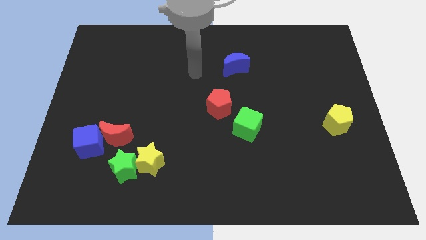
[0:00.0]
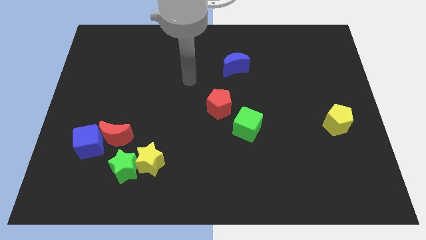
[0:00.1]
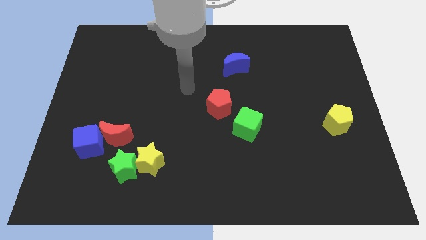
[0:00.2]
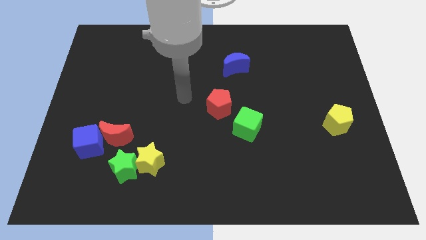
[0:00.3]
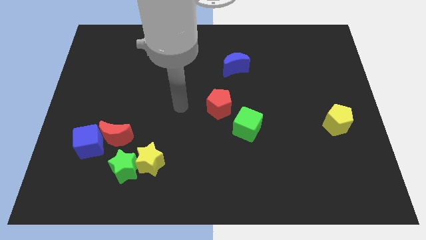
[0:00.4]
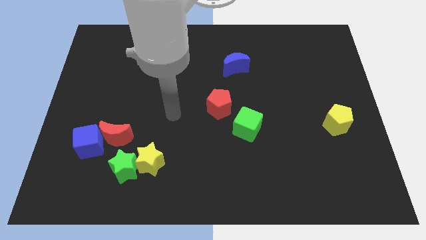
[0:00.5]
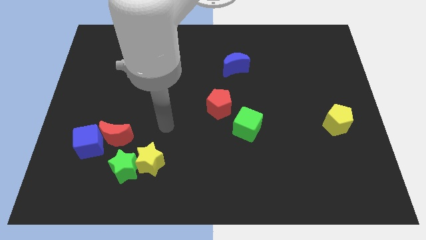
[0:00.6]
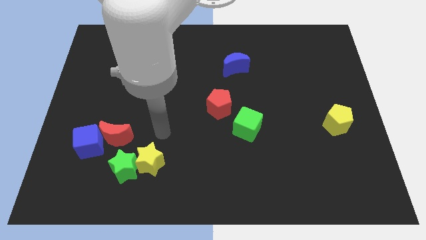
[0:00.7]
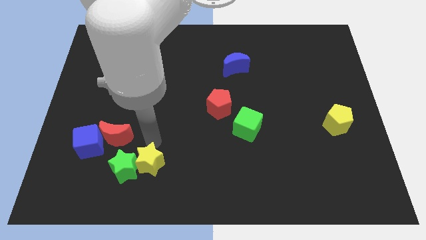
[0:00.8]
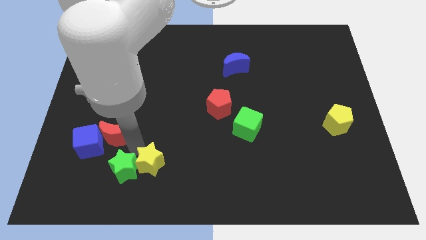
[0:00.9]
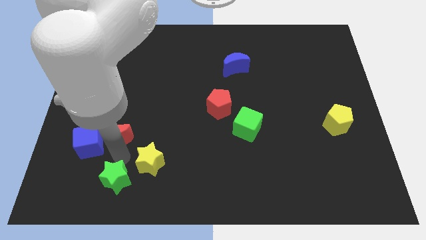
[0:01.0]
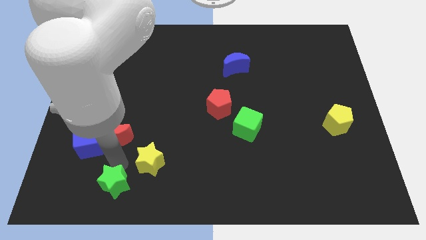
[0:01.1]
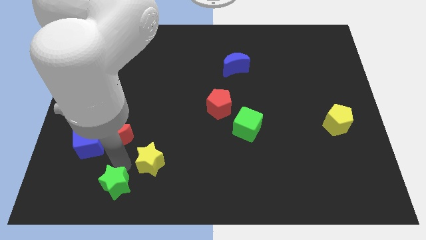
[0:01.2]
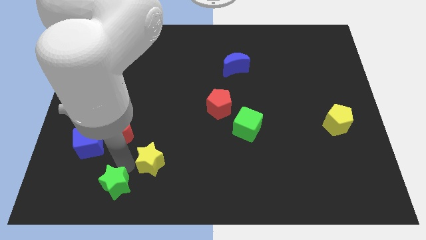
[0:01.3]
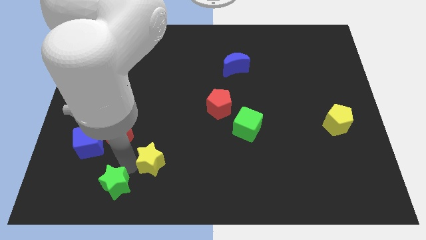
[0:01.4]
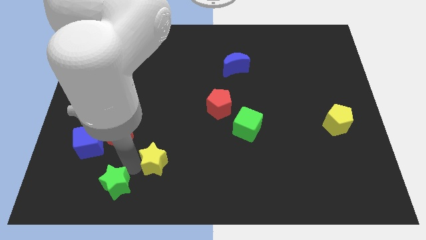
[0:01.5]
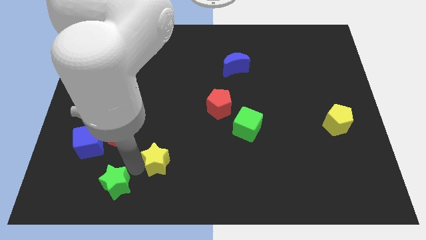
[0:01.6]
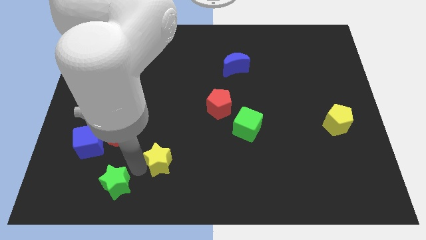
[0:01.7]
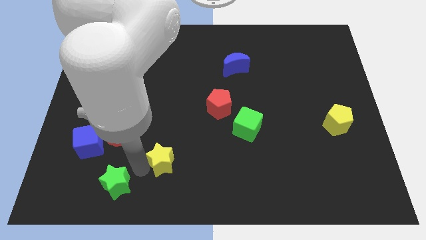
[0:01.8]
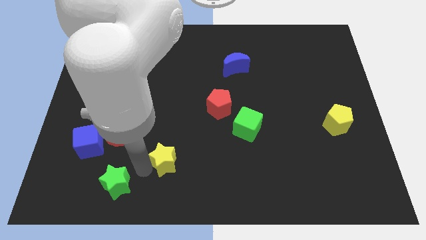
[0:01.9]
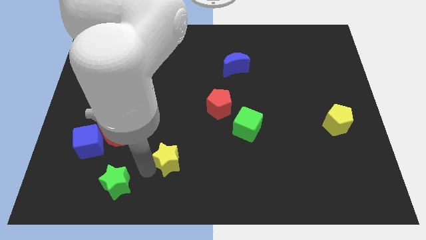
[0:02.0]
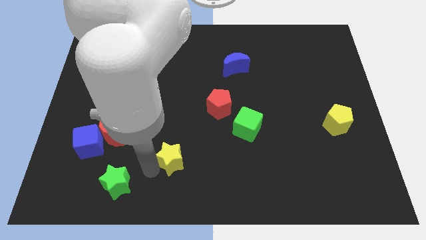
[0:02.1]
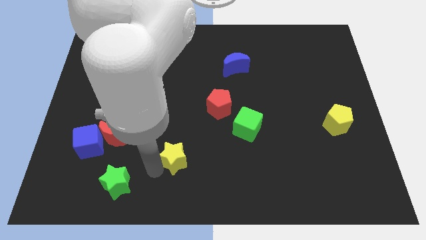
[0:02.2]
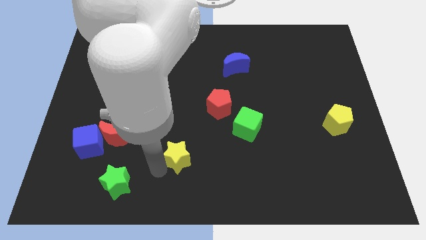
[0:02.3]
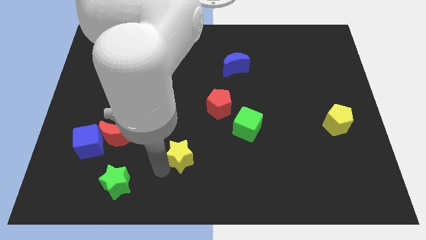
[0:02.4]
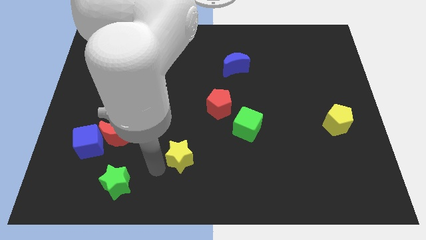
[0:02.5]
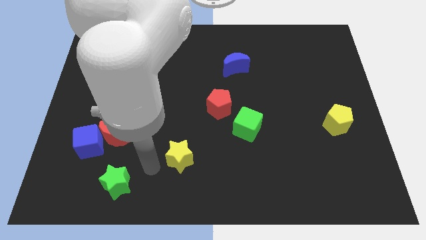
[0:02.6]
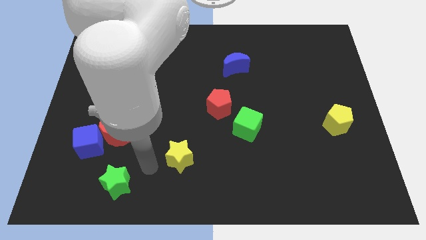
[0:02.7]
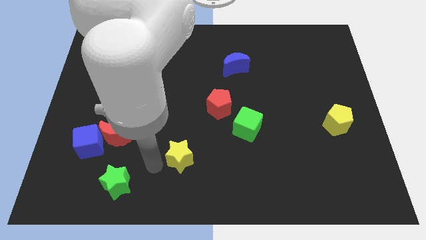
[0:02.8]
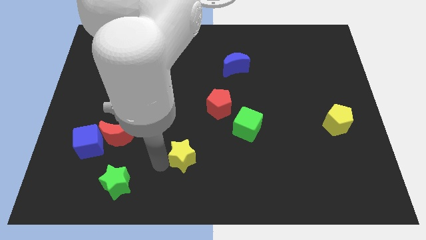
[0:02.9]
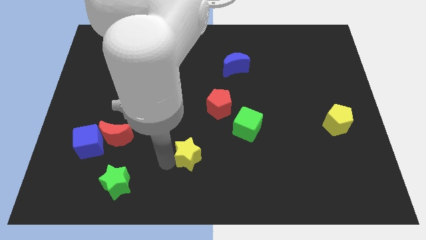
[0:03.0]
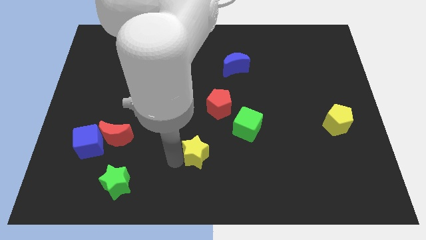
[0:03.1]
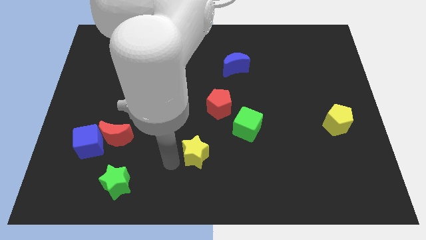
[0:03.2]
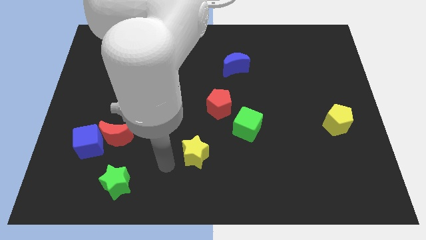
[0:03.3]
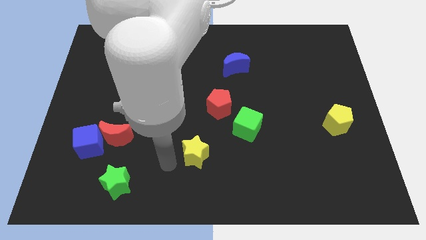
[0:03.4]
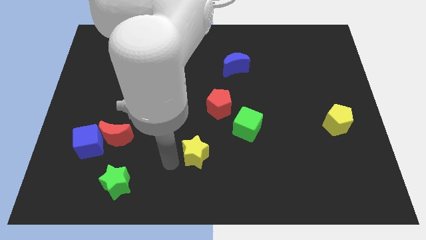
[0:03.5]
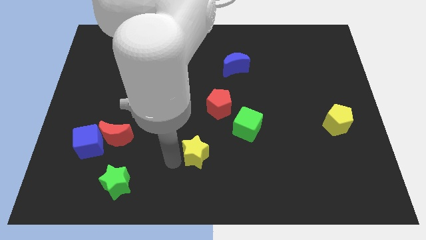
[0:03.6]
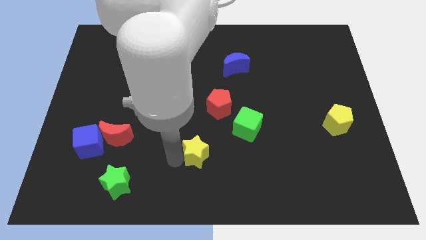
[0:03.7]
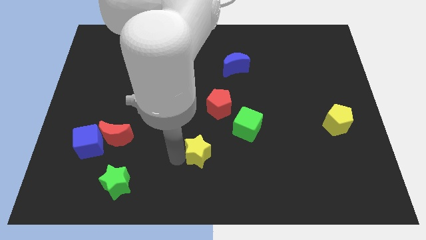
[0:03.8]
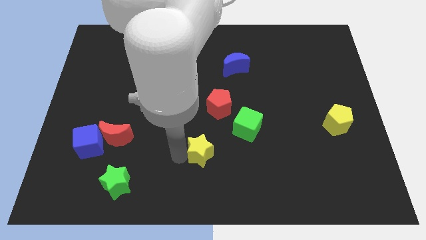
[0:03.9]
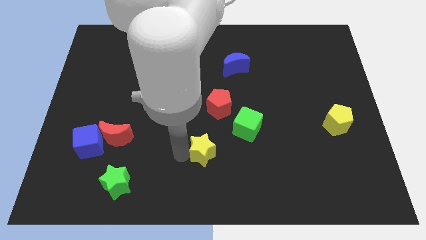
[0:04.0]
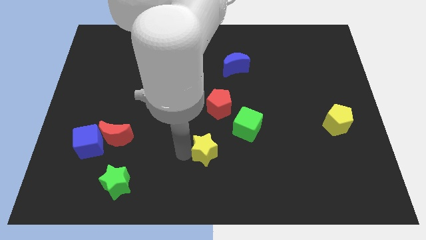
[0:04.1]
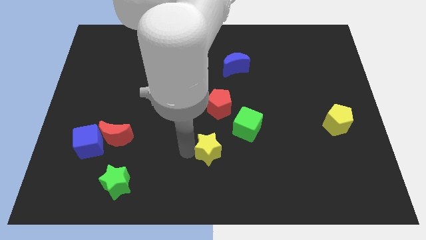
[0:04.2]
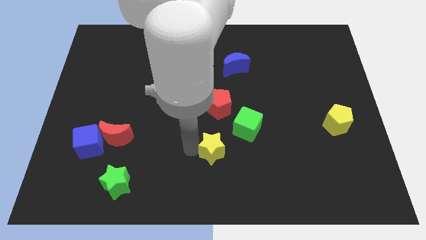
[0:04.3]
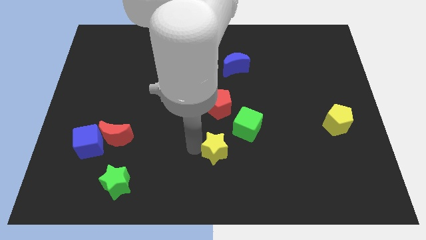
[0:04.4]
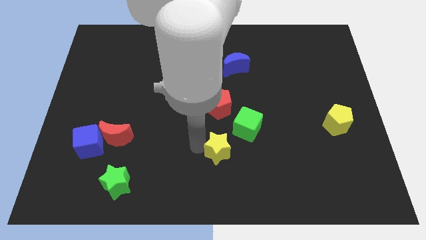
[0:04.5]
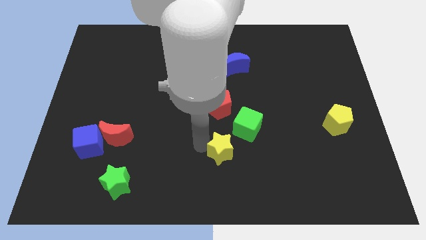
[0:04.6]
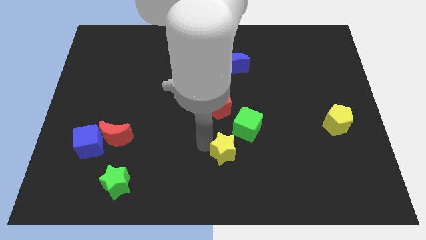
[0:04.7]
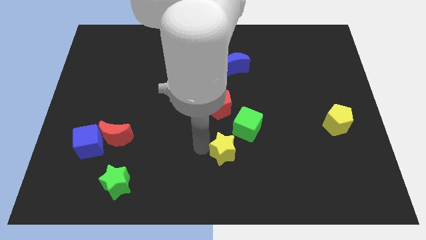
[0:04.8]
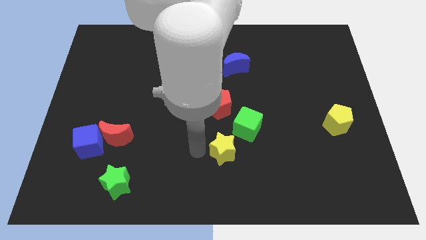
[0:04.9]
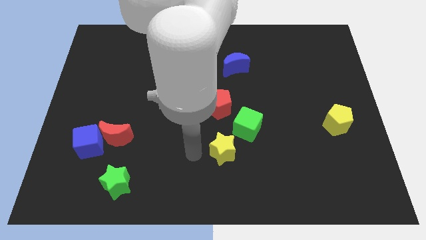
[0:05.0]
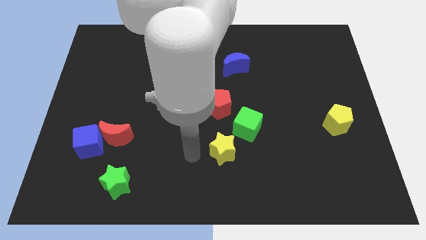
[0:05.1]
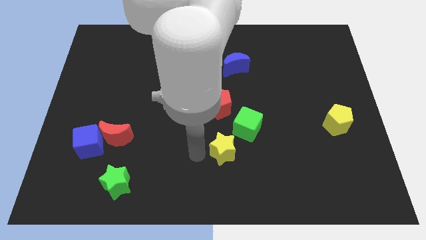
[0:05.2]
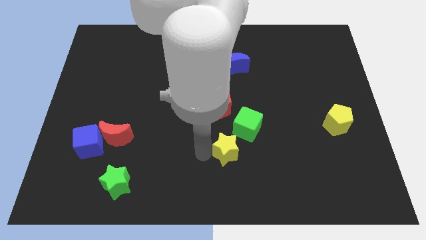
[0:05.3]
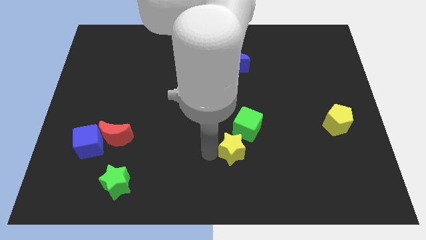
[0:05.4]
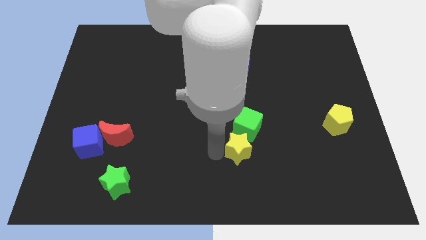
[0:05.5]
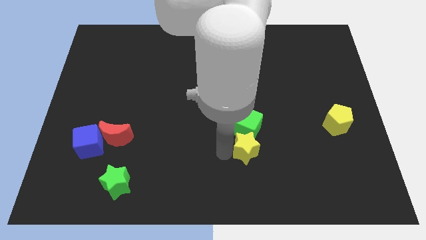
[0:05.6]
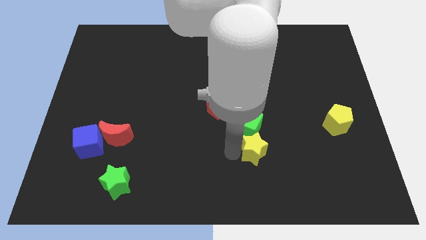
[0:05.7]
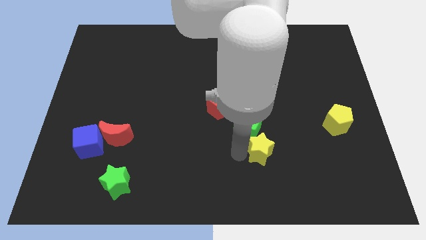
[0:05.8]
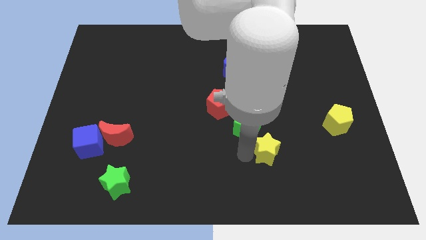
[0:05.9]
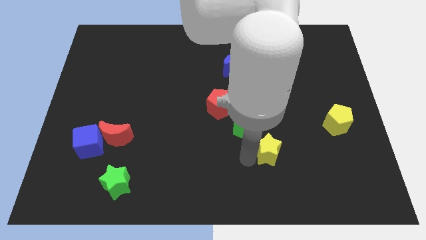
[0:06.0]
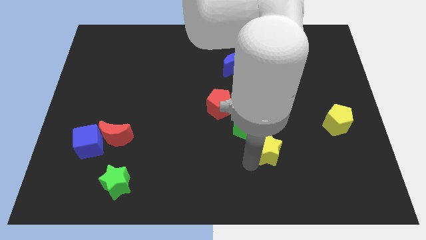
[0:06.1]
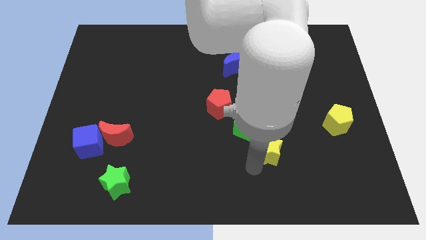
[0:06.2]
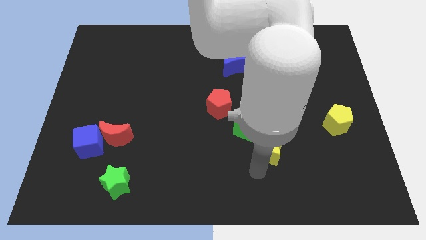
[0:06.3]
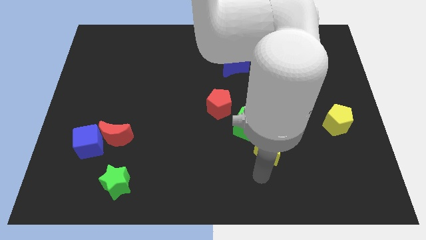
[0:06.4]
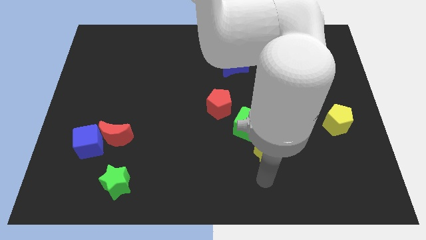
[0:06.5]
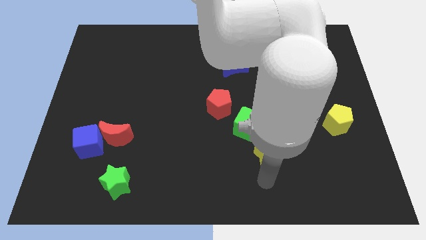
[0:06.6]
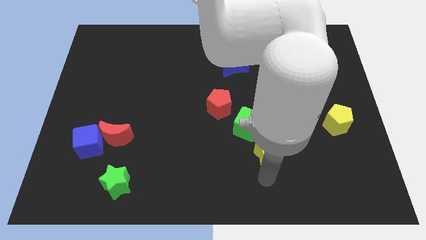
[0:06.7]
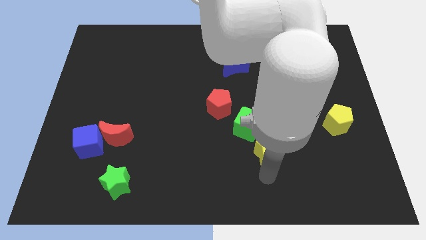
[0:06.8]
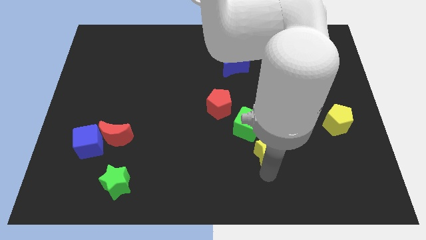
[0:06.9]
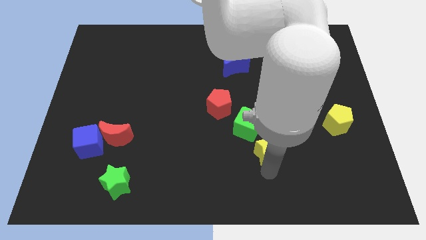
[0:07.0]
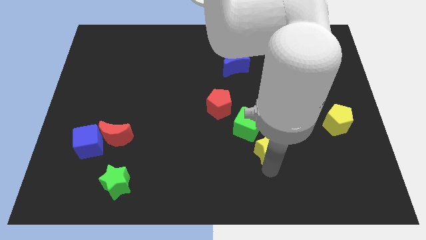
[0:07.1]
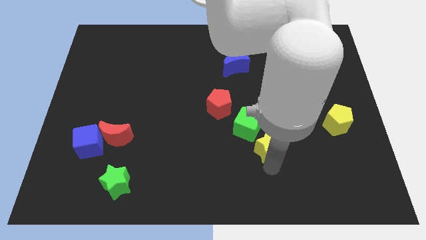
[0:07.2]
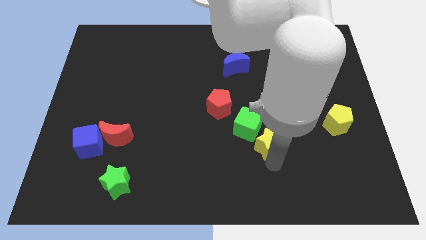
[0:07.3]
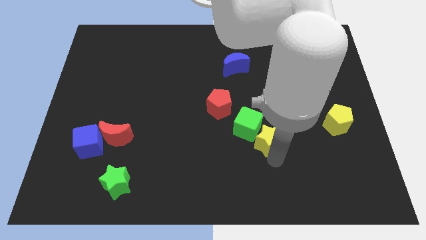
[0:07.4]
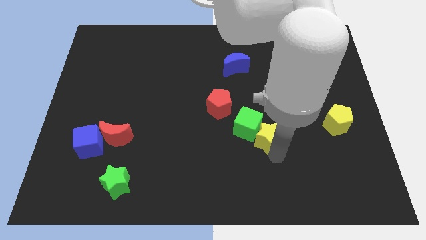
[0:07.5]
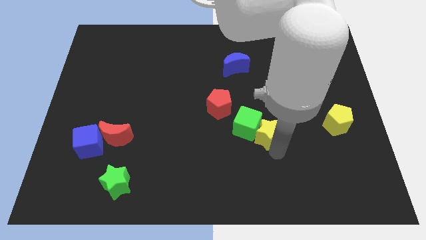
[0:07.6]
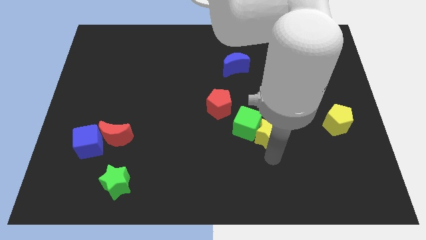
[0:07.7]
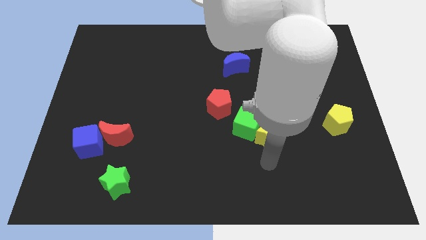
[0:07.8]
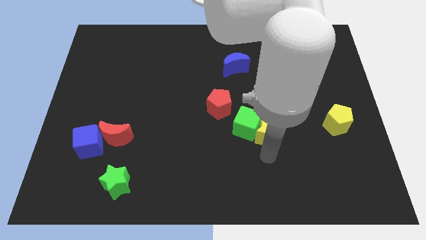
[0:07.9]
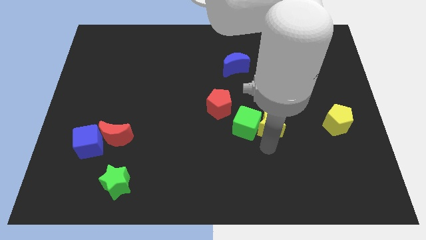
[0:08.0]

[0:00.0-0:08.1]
slide the yellow star to the top right side of the green cube
